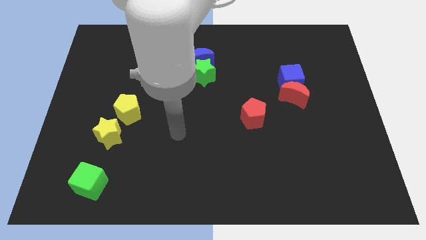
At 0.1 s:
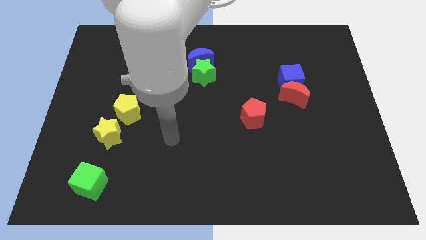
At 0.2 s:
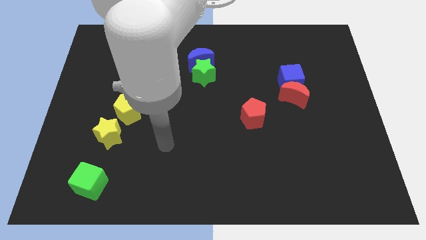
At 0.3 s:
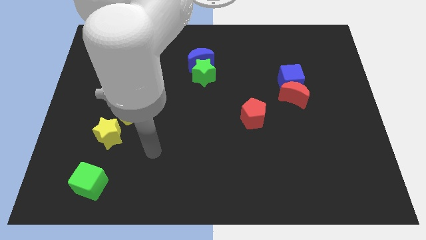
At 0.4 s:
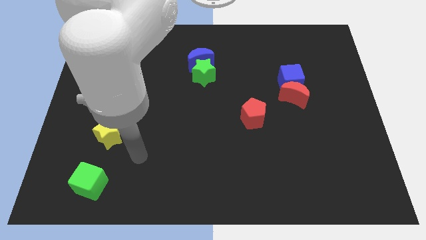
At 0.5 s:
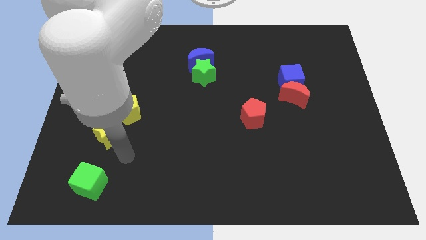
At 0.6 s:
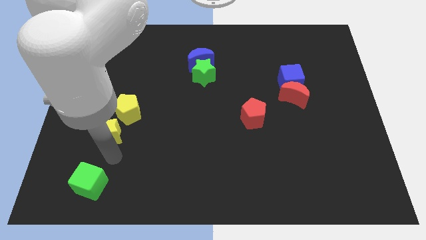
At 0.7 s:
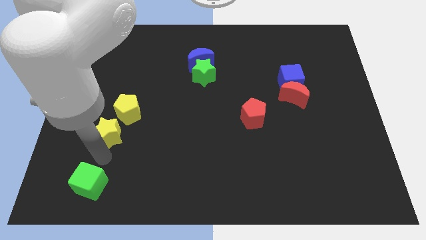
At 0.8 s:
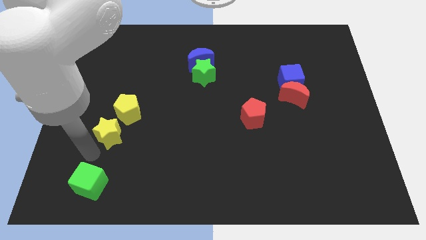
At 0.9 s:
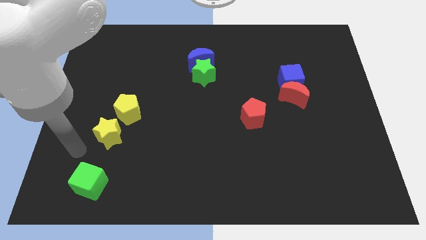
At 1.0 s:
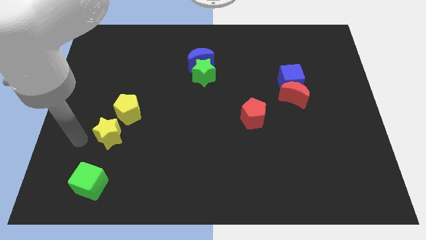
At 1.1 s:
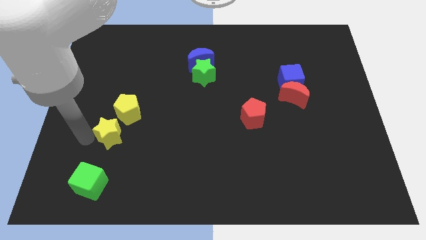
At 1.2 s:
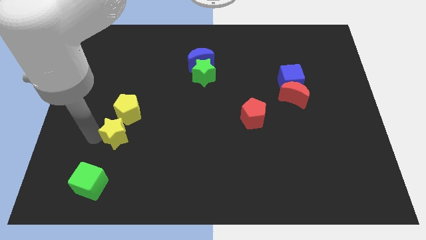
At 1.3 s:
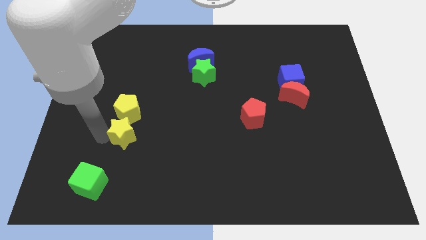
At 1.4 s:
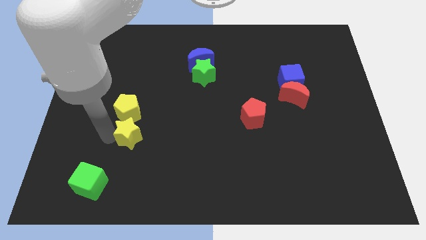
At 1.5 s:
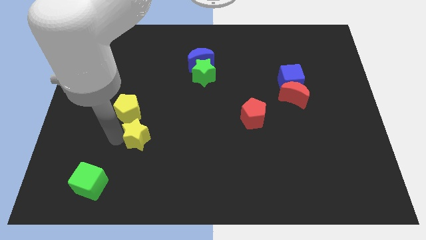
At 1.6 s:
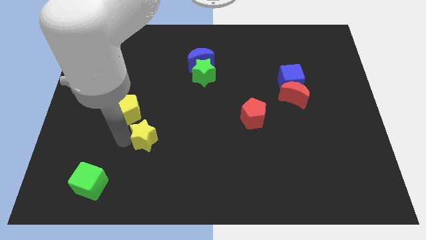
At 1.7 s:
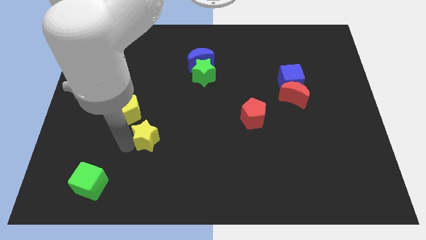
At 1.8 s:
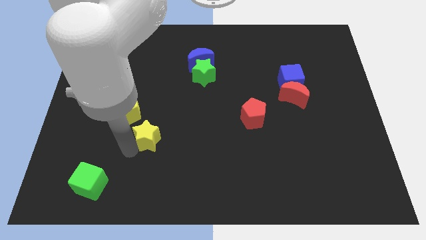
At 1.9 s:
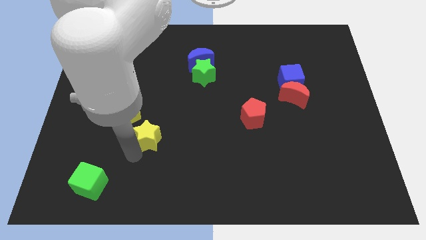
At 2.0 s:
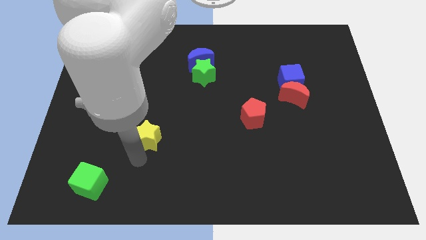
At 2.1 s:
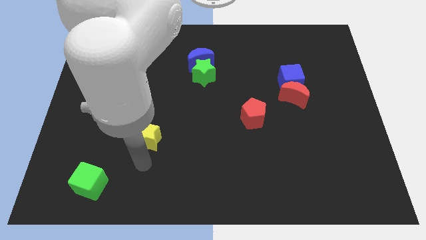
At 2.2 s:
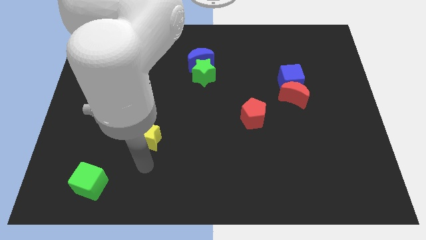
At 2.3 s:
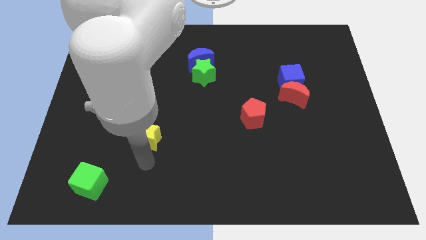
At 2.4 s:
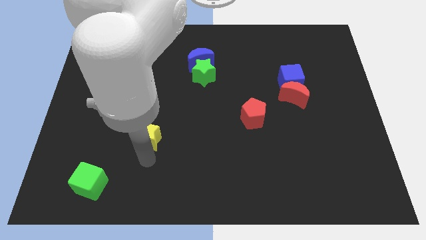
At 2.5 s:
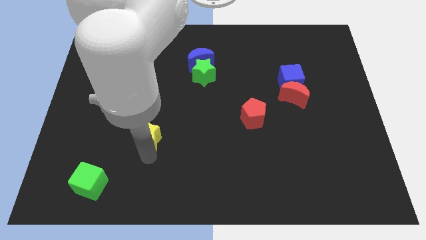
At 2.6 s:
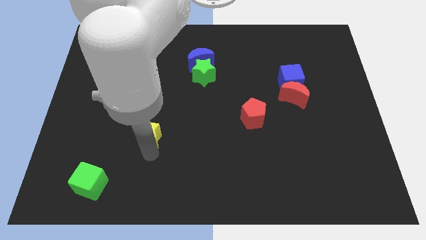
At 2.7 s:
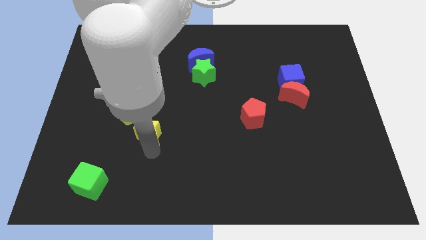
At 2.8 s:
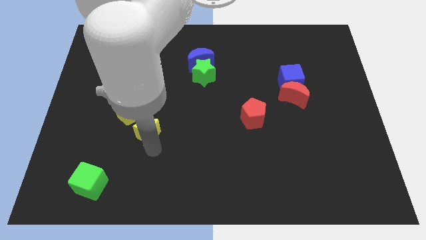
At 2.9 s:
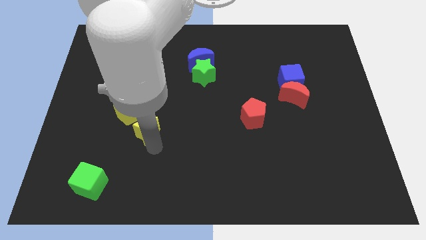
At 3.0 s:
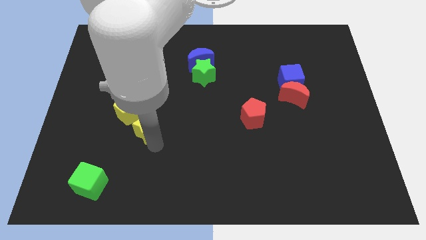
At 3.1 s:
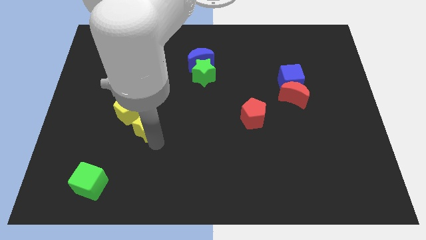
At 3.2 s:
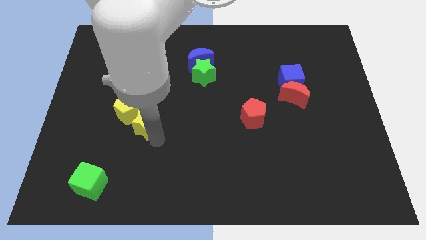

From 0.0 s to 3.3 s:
push the yellow star a little upwards and to the right

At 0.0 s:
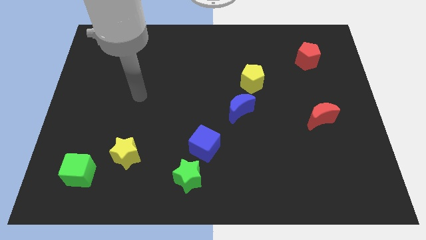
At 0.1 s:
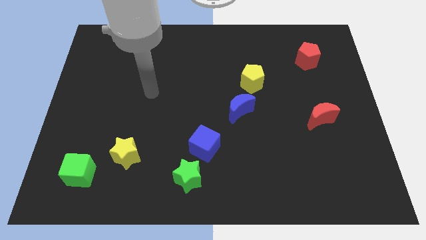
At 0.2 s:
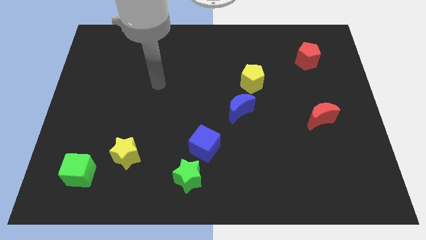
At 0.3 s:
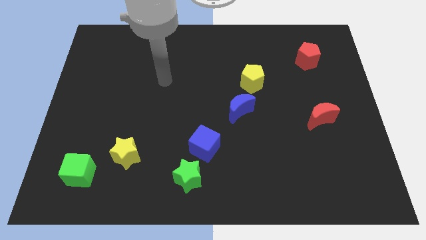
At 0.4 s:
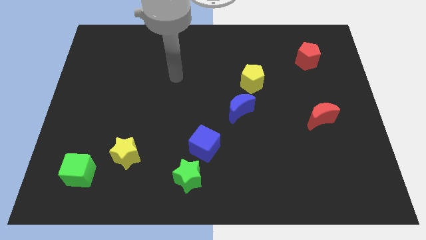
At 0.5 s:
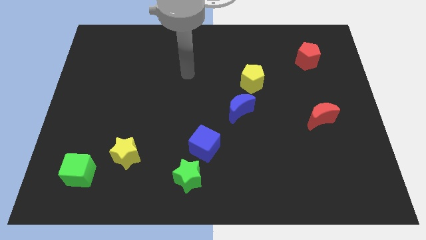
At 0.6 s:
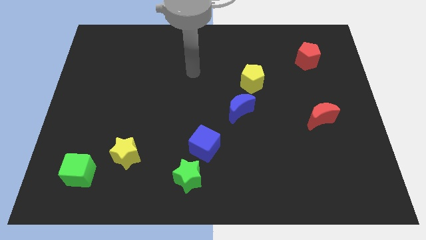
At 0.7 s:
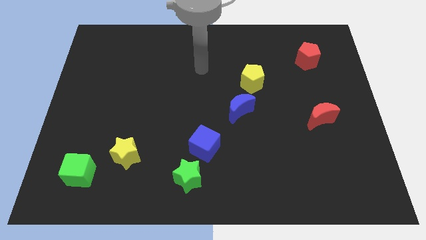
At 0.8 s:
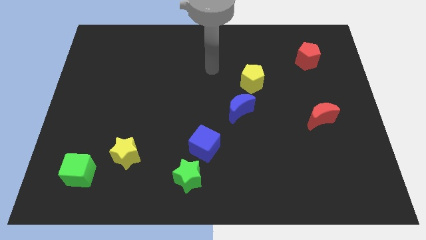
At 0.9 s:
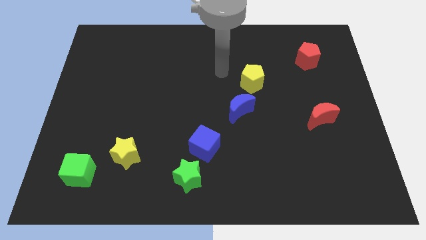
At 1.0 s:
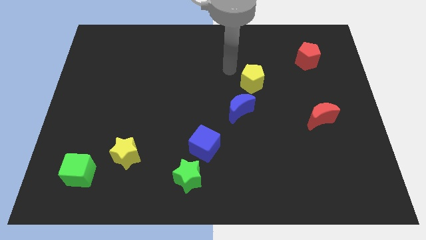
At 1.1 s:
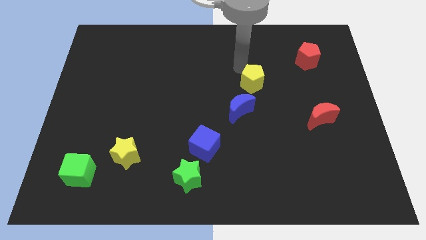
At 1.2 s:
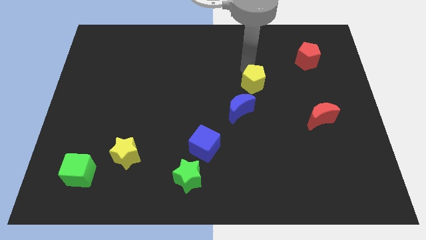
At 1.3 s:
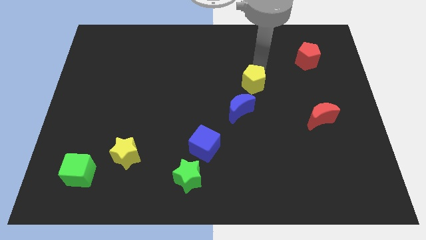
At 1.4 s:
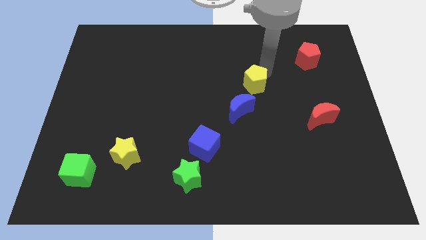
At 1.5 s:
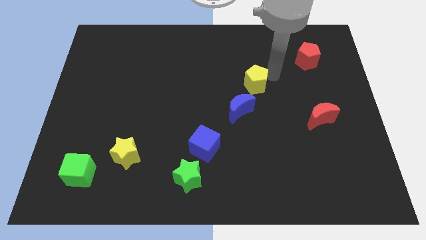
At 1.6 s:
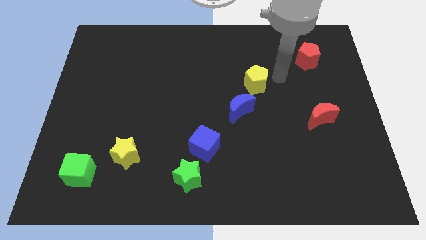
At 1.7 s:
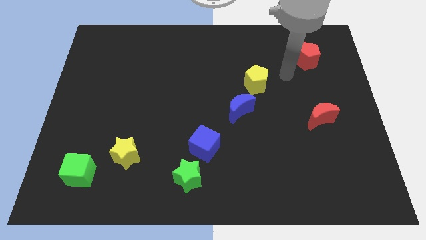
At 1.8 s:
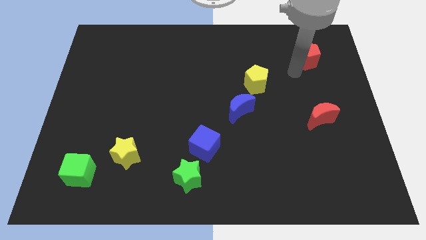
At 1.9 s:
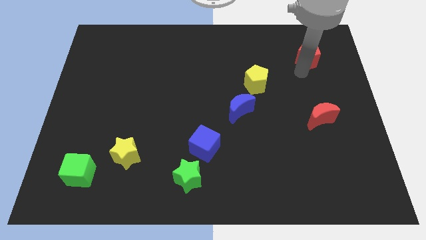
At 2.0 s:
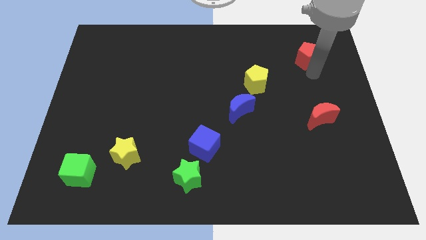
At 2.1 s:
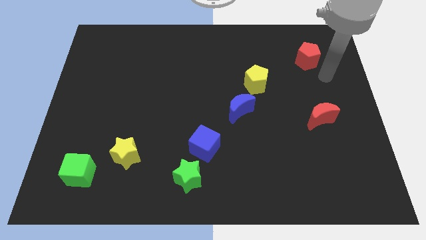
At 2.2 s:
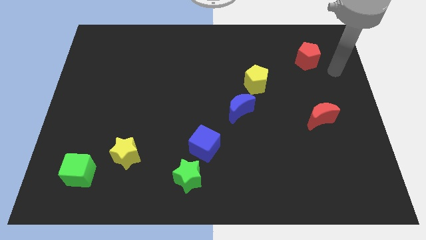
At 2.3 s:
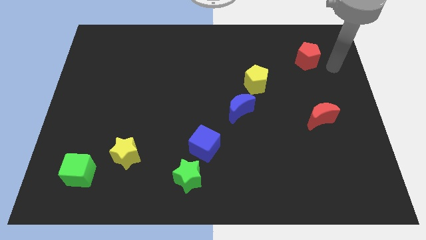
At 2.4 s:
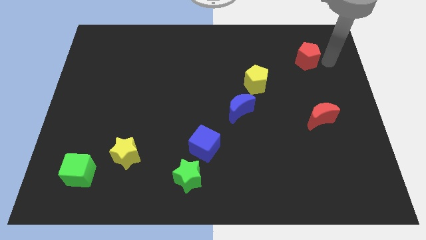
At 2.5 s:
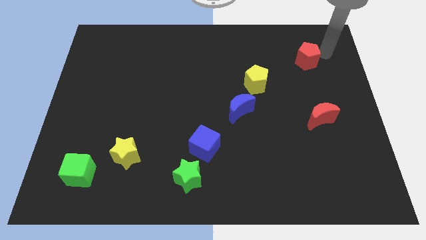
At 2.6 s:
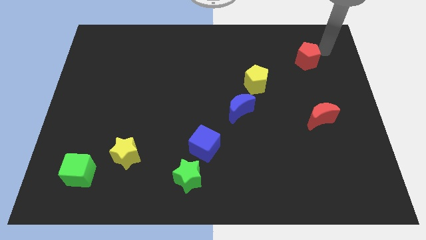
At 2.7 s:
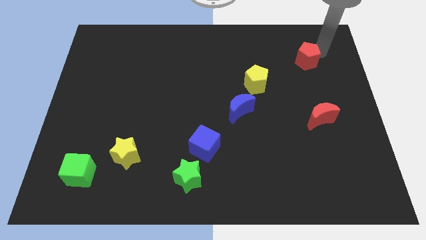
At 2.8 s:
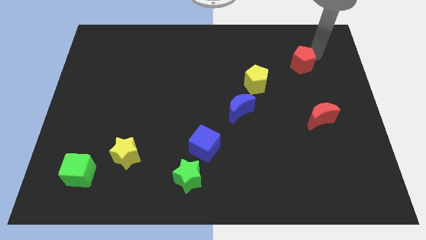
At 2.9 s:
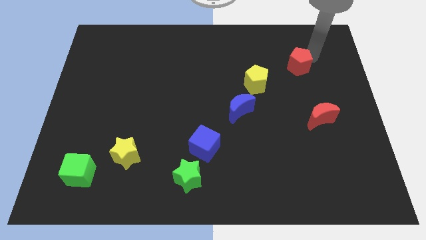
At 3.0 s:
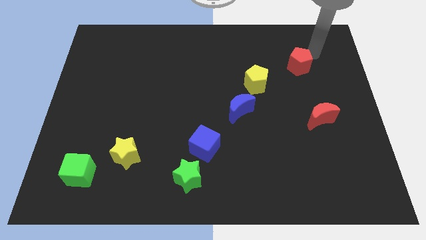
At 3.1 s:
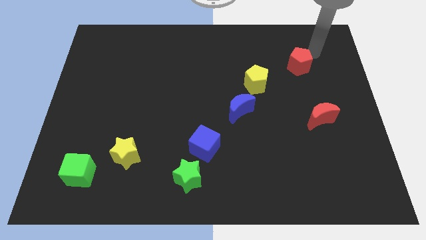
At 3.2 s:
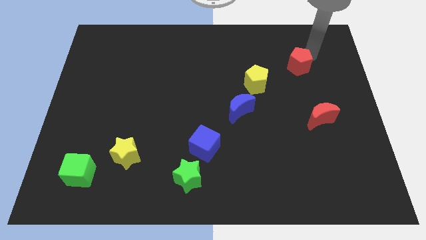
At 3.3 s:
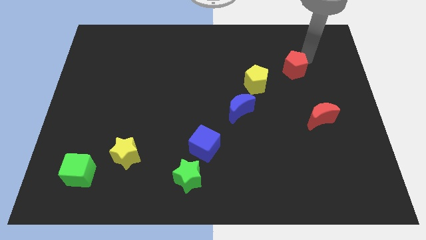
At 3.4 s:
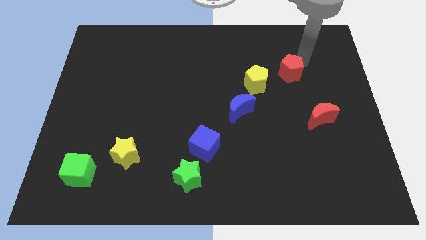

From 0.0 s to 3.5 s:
slide the red pentagon a bit downwards and left diagonally

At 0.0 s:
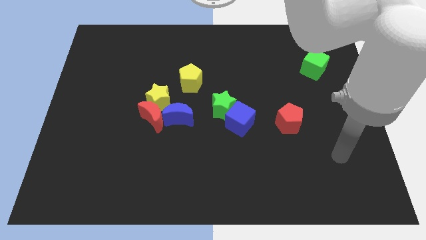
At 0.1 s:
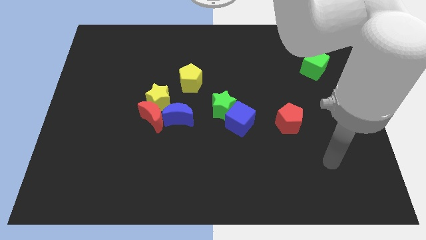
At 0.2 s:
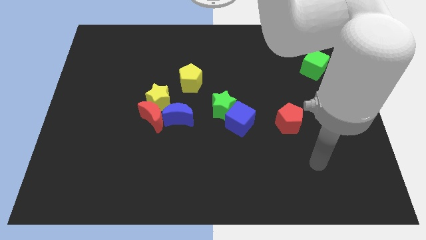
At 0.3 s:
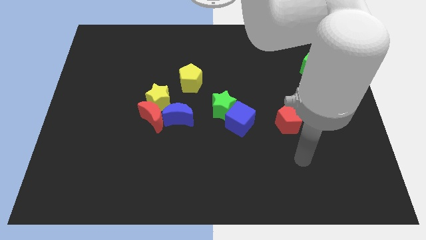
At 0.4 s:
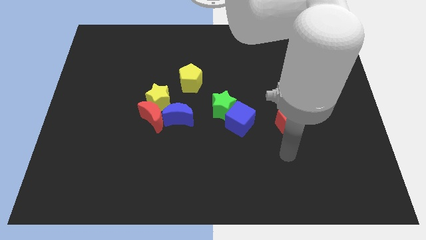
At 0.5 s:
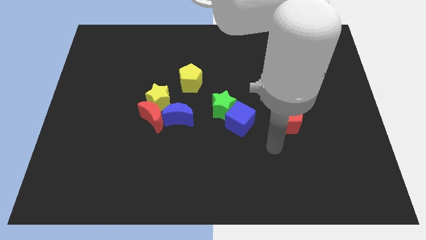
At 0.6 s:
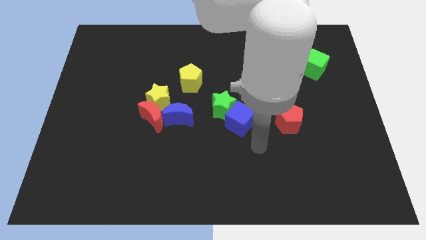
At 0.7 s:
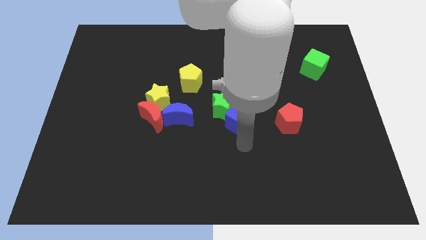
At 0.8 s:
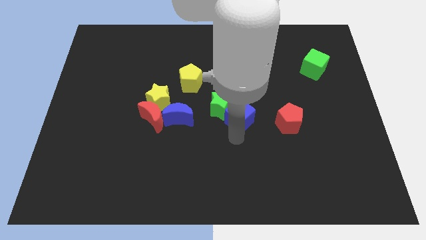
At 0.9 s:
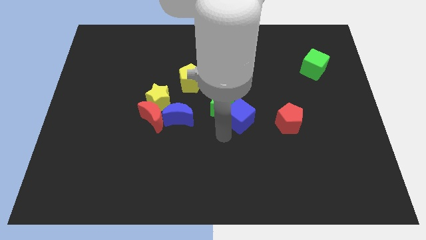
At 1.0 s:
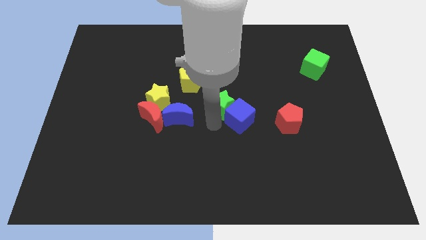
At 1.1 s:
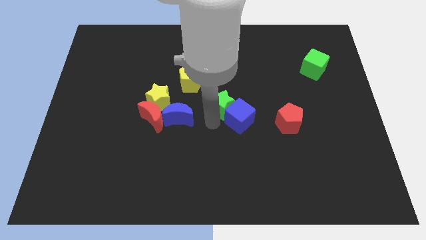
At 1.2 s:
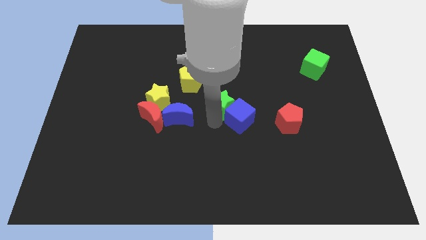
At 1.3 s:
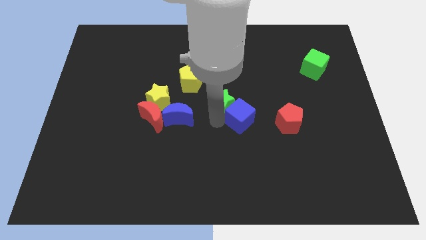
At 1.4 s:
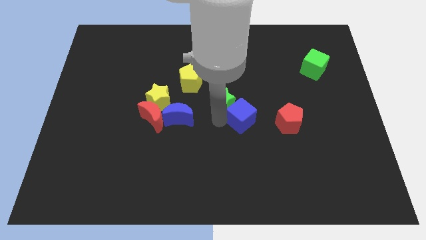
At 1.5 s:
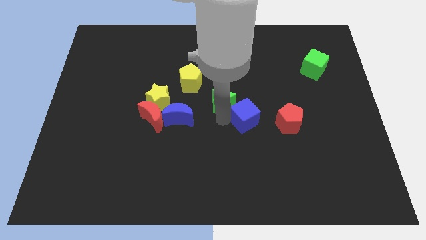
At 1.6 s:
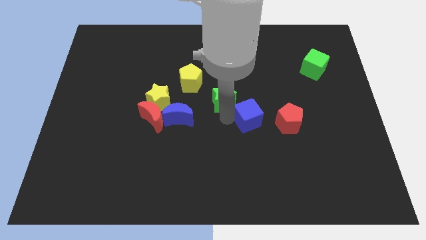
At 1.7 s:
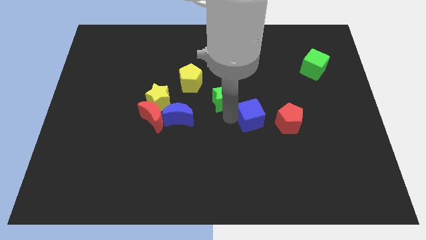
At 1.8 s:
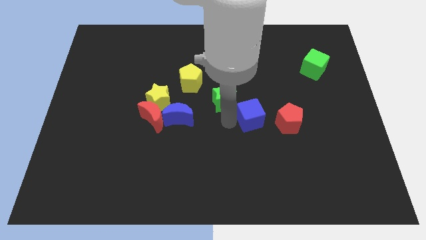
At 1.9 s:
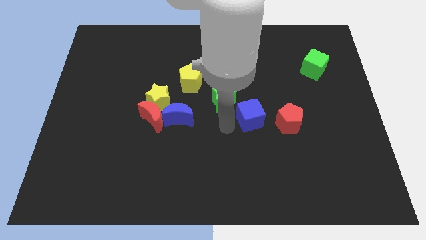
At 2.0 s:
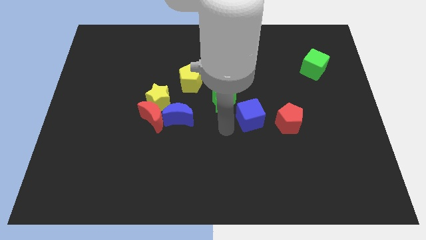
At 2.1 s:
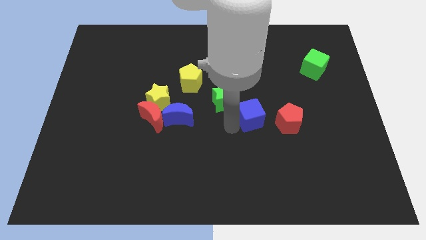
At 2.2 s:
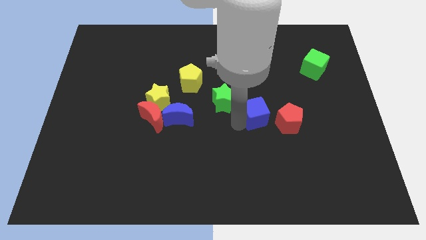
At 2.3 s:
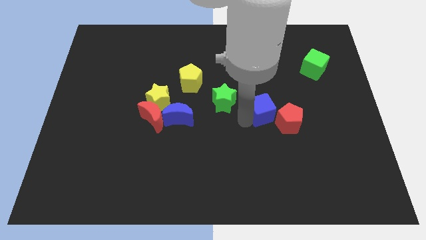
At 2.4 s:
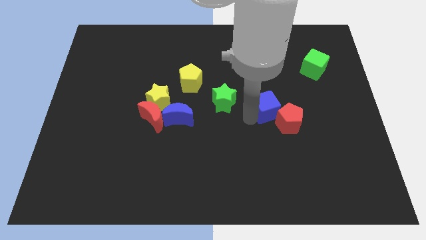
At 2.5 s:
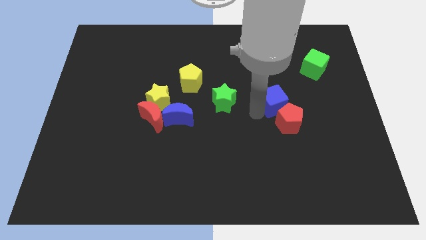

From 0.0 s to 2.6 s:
push the blue cube a little to the right
